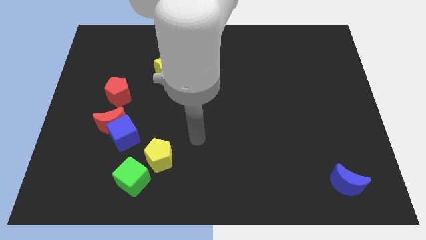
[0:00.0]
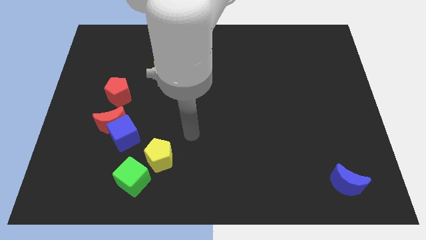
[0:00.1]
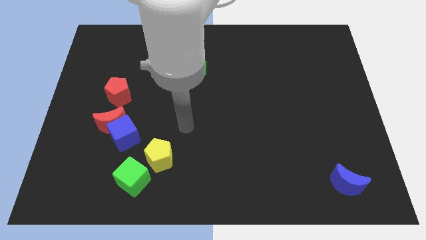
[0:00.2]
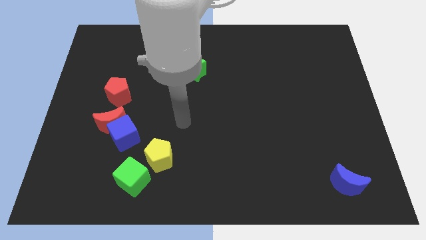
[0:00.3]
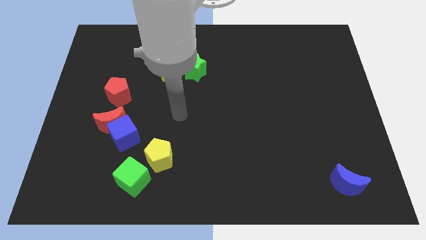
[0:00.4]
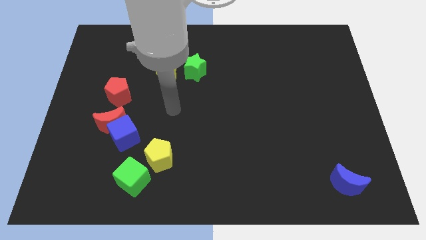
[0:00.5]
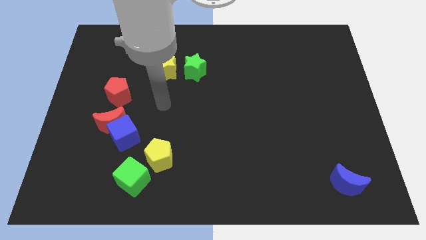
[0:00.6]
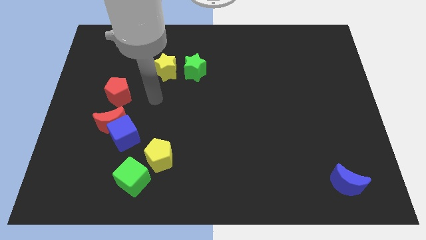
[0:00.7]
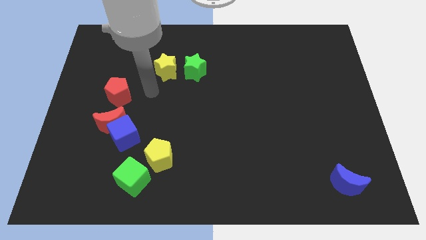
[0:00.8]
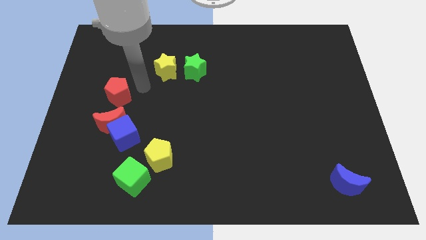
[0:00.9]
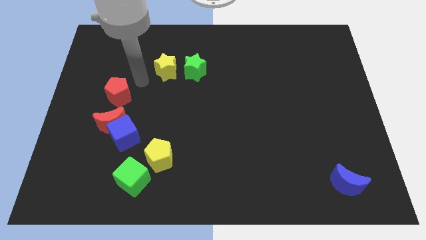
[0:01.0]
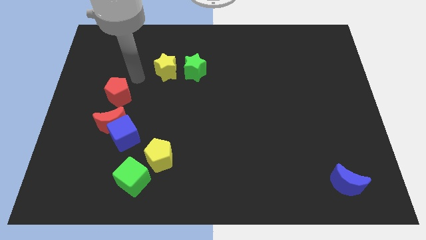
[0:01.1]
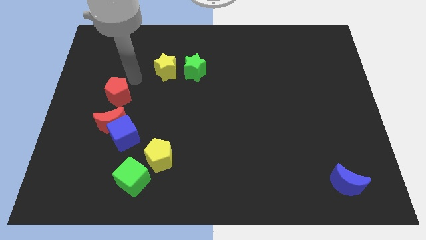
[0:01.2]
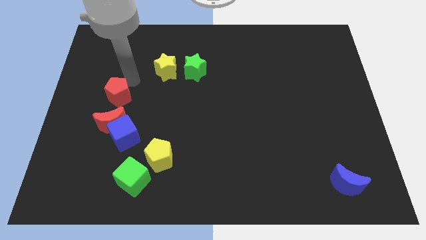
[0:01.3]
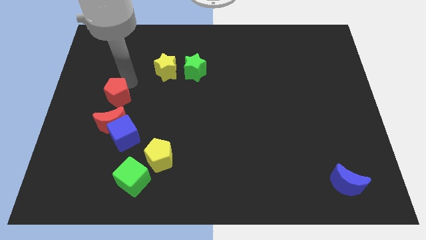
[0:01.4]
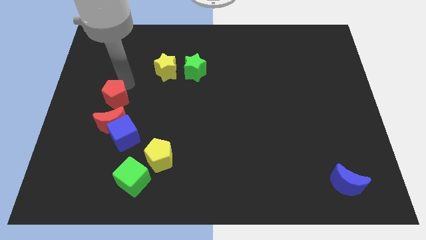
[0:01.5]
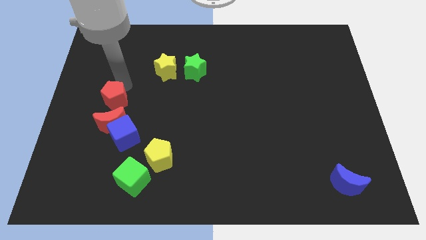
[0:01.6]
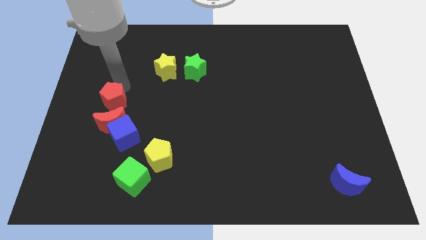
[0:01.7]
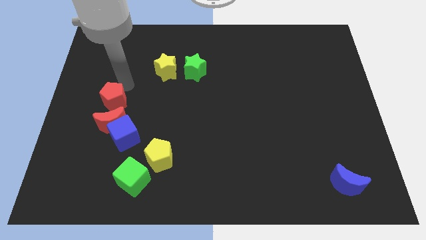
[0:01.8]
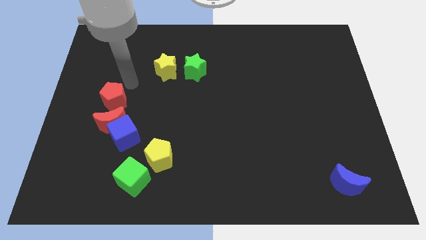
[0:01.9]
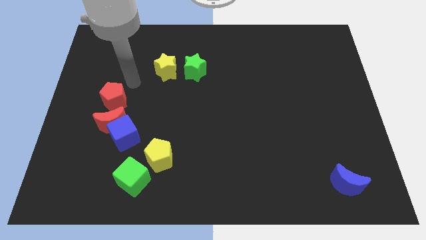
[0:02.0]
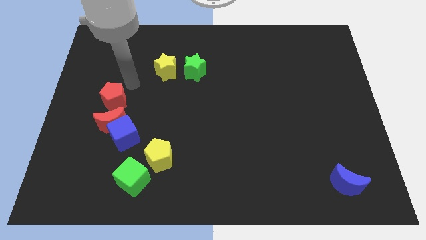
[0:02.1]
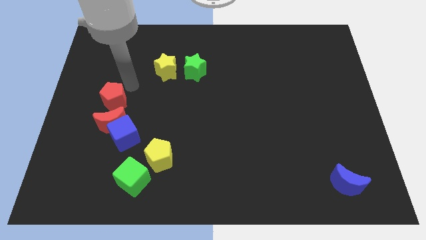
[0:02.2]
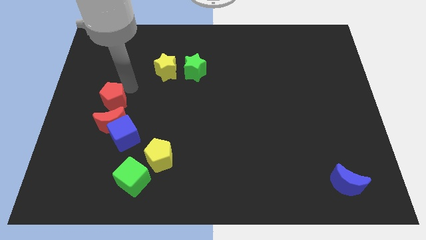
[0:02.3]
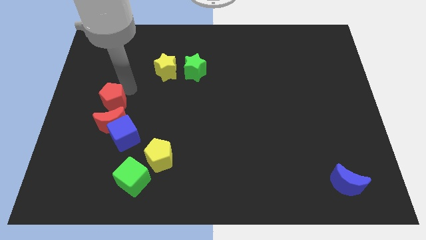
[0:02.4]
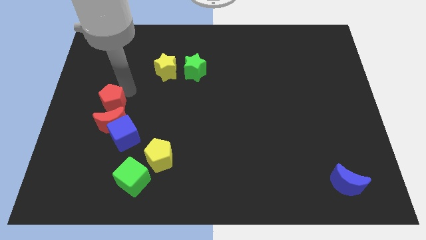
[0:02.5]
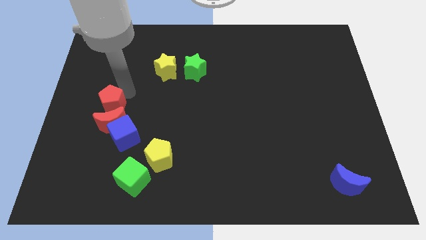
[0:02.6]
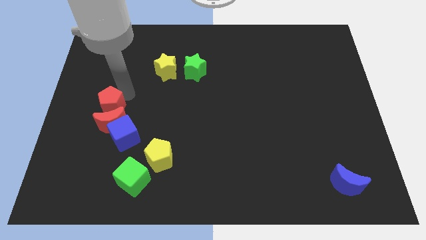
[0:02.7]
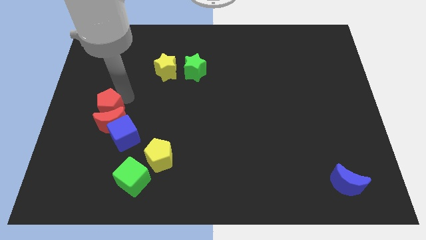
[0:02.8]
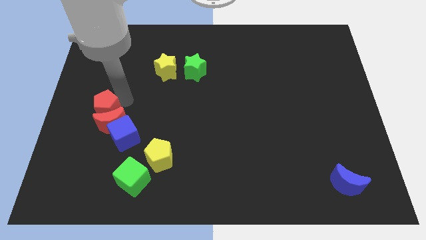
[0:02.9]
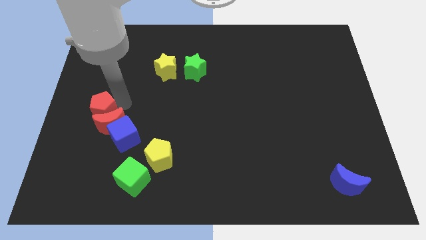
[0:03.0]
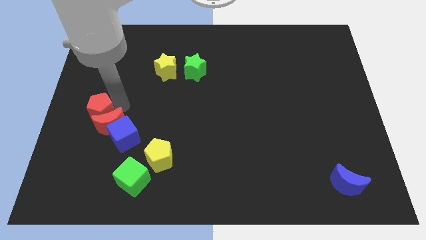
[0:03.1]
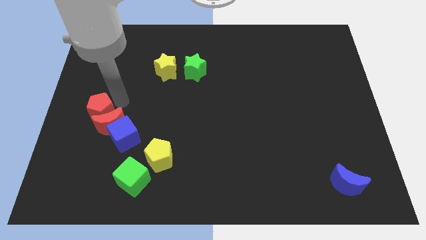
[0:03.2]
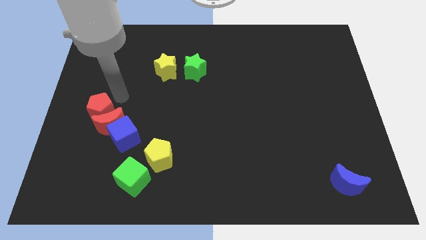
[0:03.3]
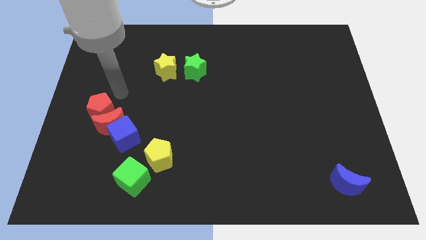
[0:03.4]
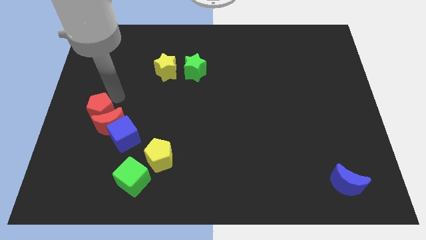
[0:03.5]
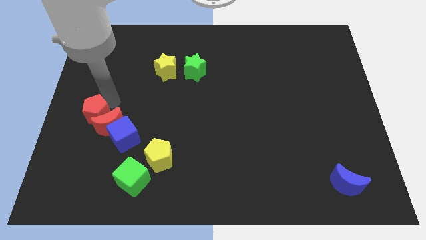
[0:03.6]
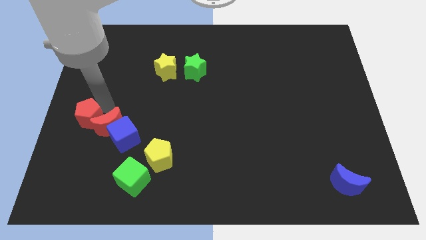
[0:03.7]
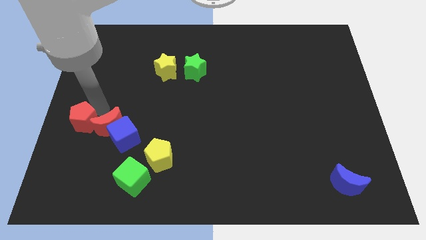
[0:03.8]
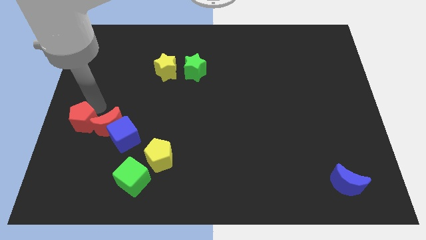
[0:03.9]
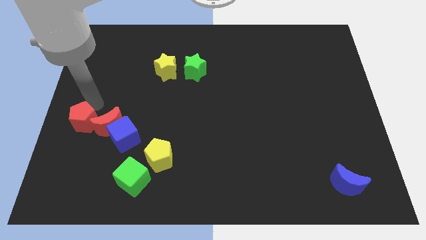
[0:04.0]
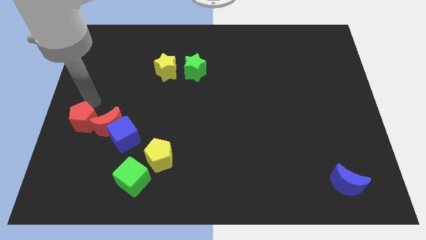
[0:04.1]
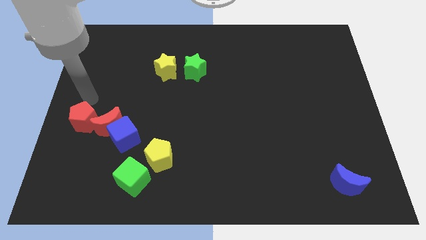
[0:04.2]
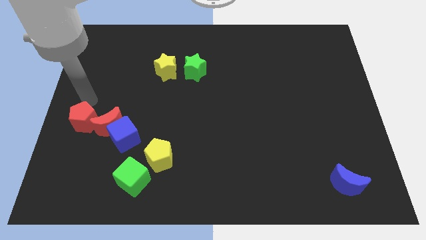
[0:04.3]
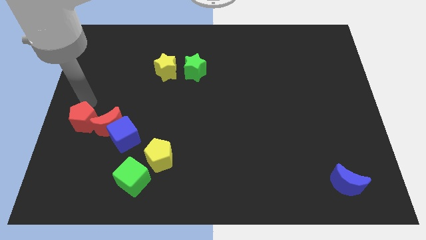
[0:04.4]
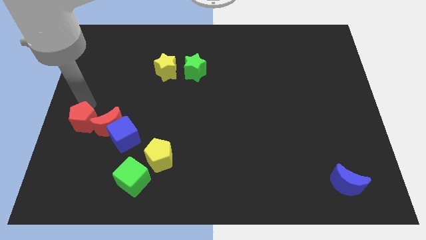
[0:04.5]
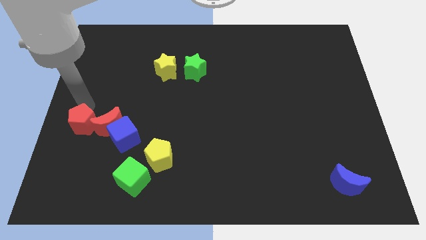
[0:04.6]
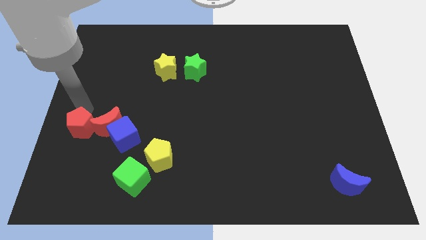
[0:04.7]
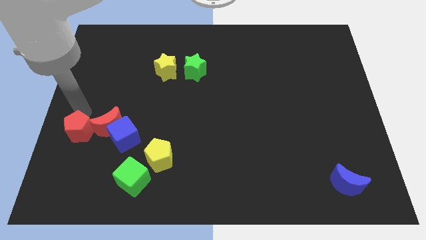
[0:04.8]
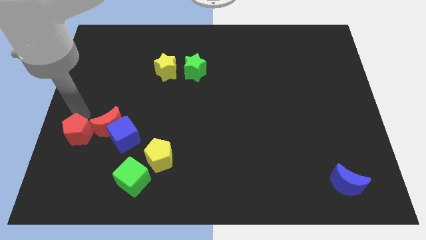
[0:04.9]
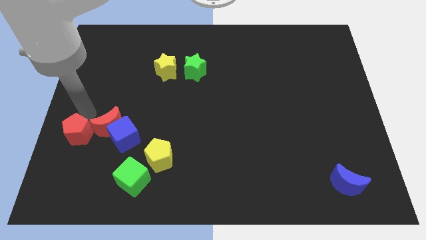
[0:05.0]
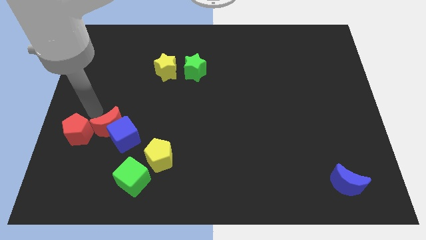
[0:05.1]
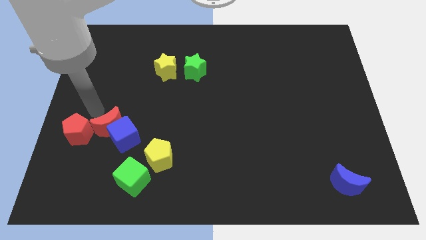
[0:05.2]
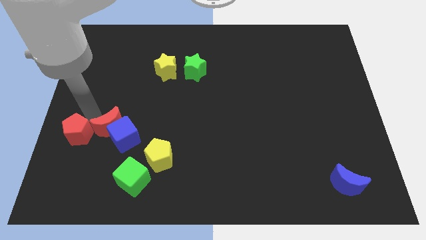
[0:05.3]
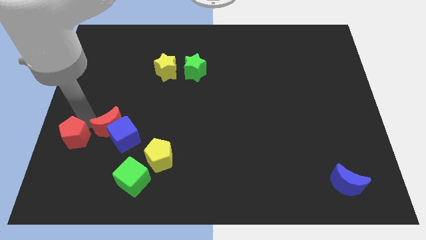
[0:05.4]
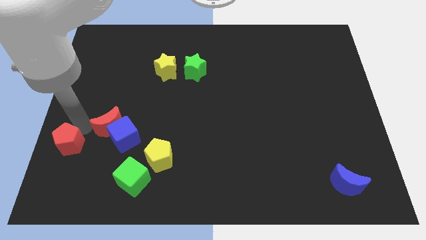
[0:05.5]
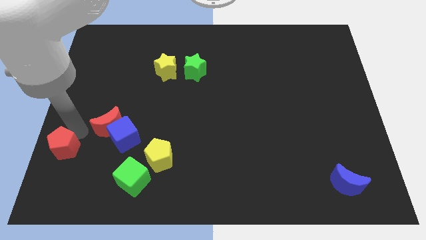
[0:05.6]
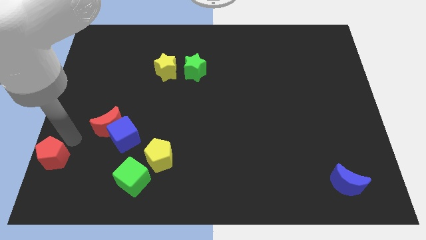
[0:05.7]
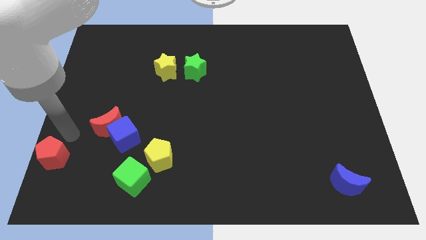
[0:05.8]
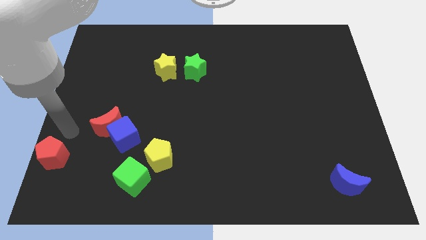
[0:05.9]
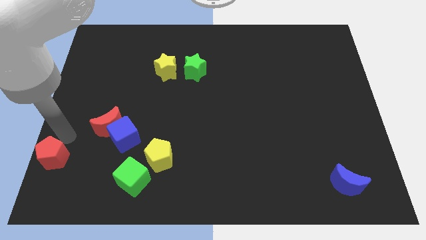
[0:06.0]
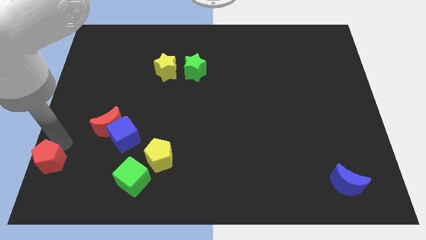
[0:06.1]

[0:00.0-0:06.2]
slide the red pentagon to the bottom left
